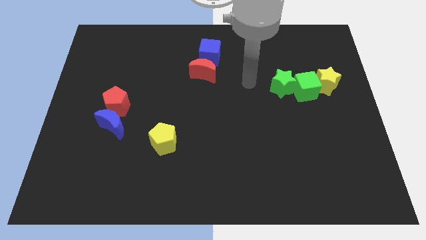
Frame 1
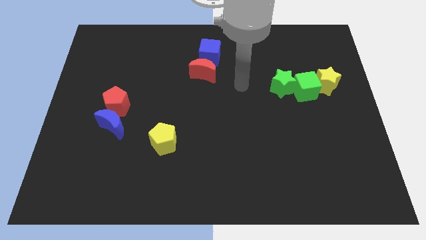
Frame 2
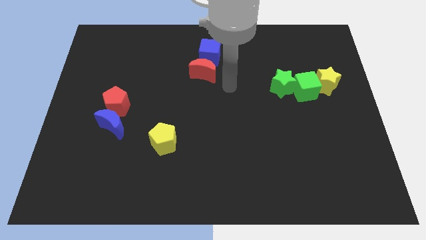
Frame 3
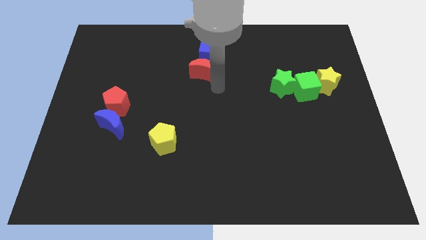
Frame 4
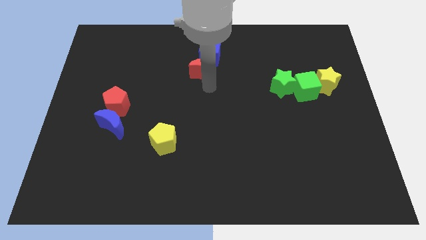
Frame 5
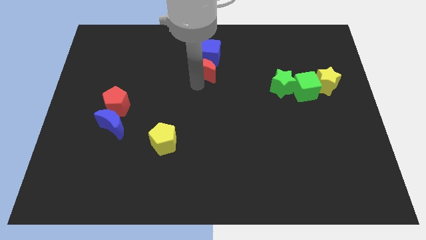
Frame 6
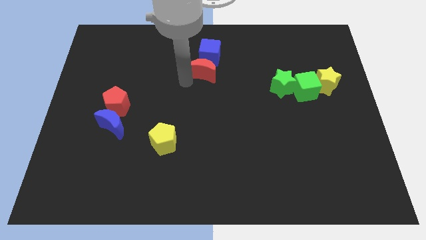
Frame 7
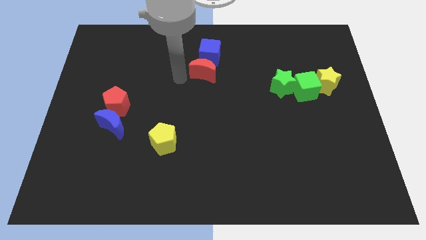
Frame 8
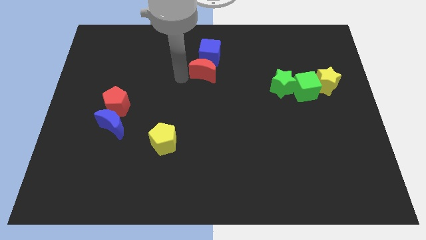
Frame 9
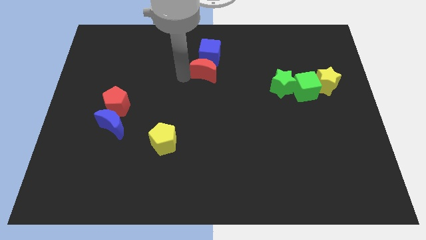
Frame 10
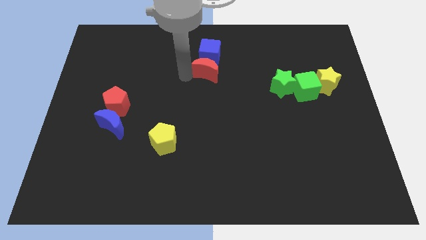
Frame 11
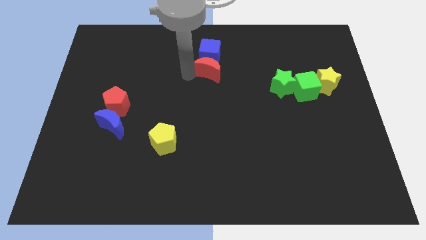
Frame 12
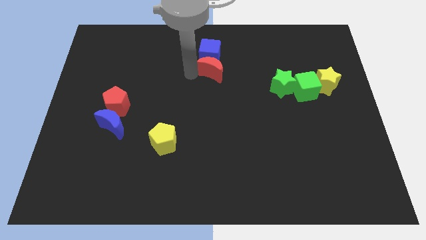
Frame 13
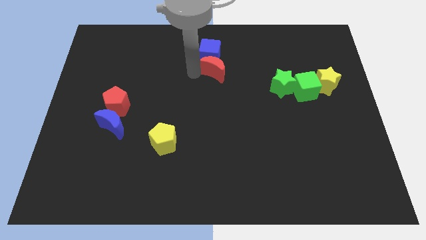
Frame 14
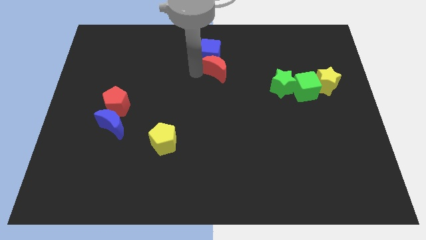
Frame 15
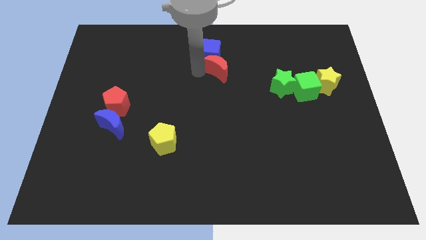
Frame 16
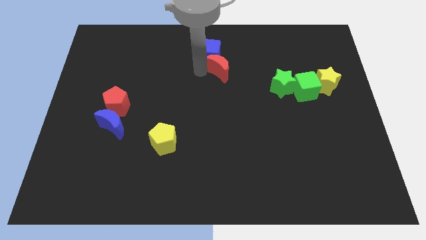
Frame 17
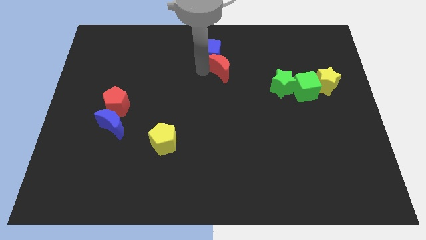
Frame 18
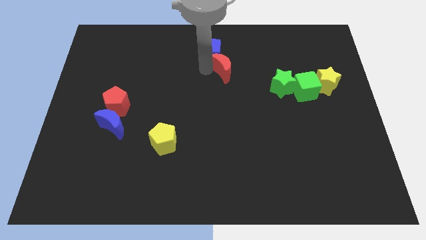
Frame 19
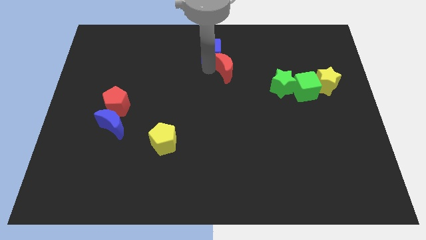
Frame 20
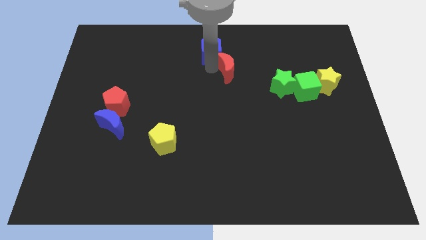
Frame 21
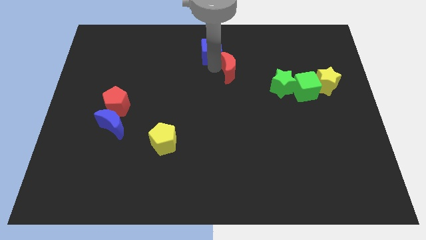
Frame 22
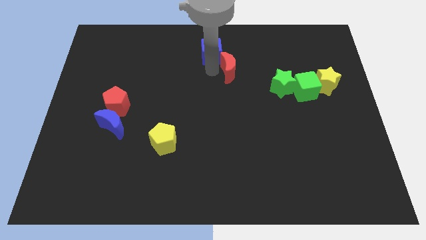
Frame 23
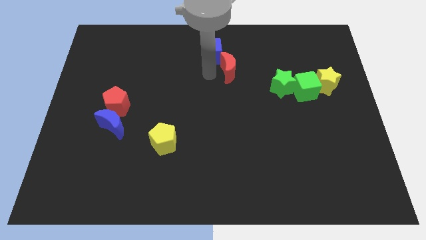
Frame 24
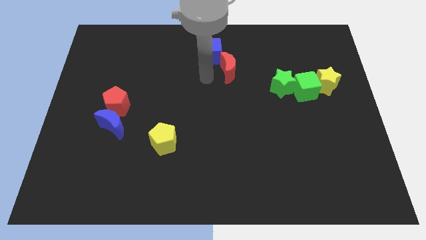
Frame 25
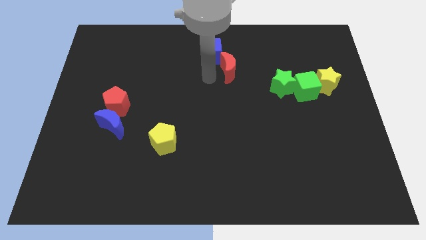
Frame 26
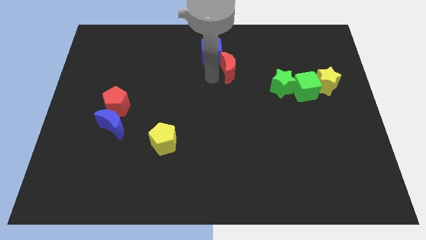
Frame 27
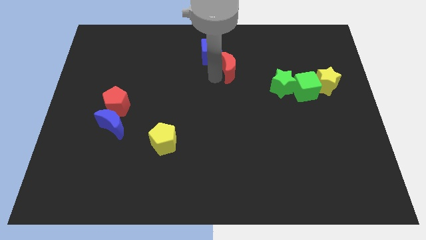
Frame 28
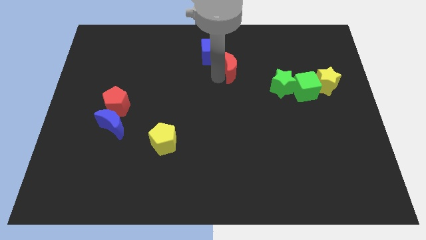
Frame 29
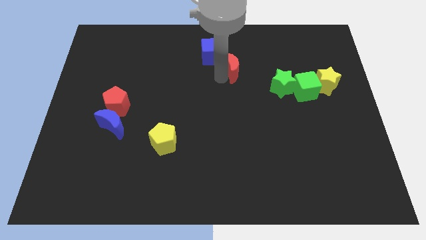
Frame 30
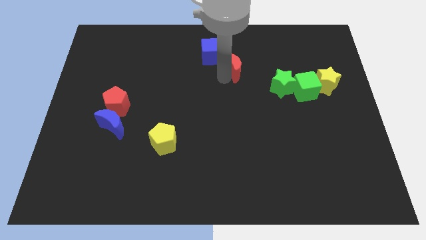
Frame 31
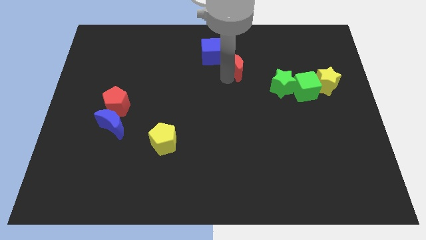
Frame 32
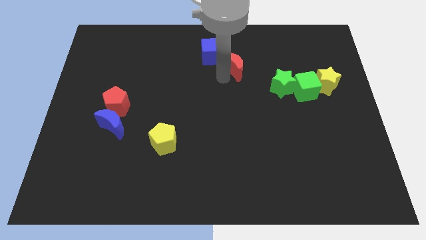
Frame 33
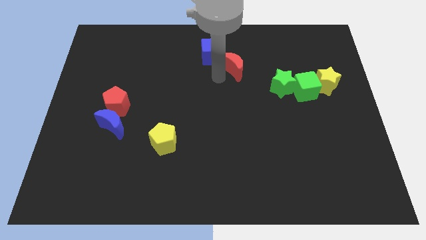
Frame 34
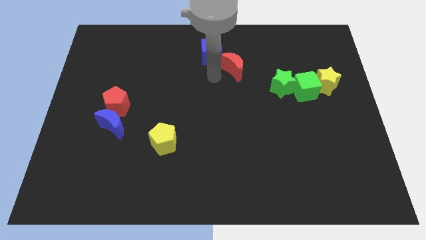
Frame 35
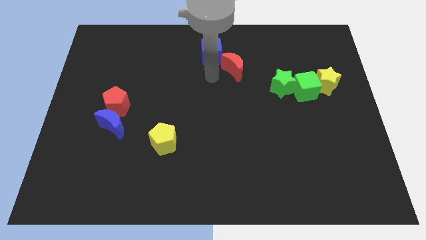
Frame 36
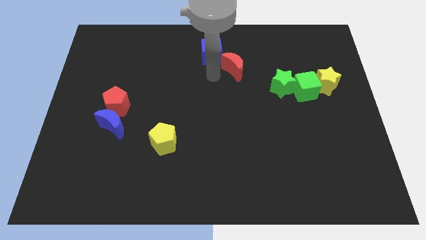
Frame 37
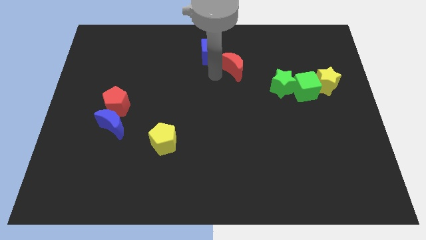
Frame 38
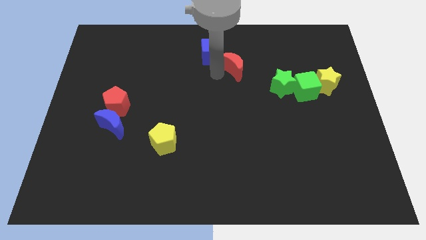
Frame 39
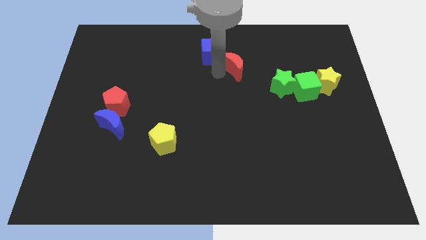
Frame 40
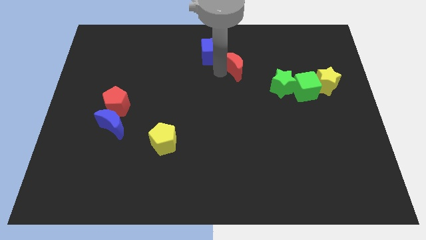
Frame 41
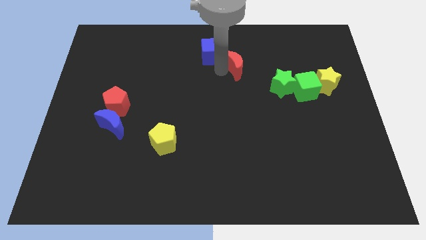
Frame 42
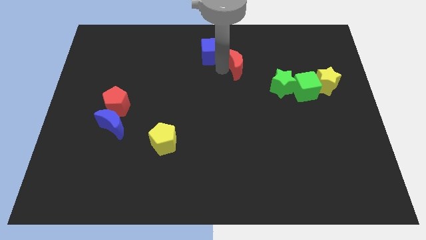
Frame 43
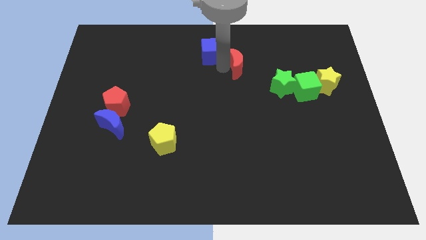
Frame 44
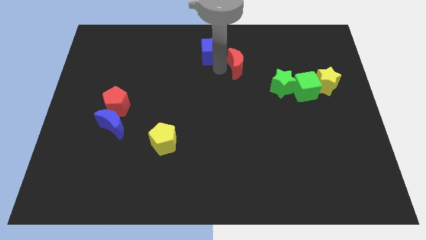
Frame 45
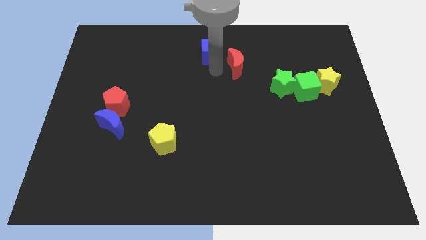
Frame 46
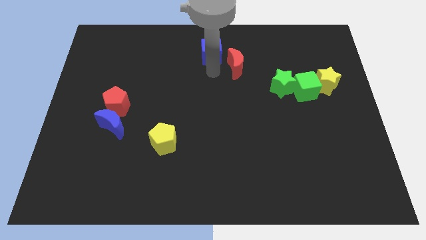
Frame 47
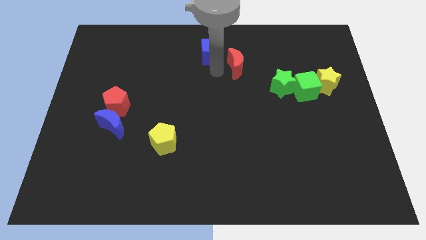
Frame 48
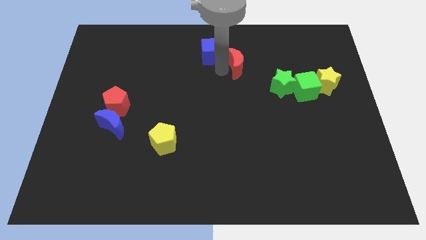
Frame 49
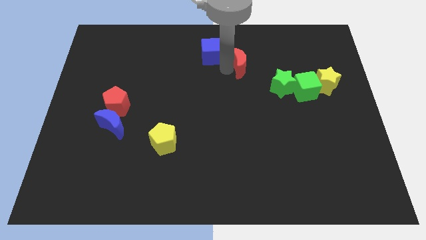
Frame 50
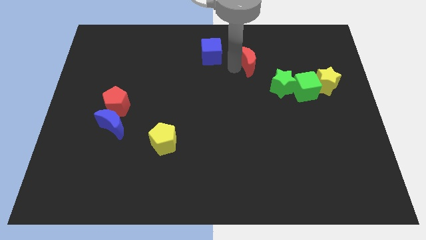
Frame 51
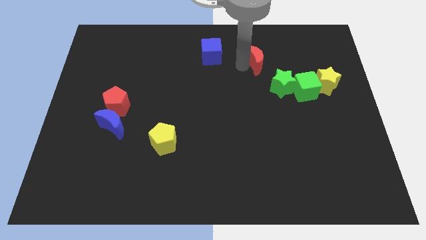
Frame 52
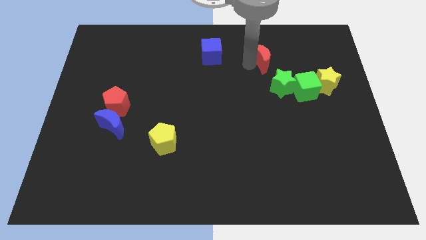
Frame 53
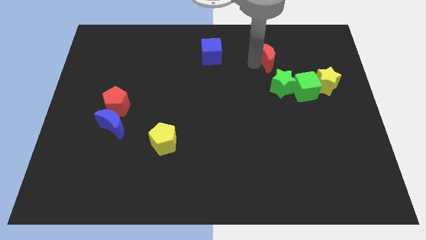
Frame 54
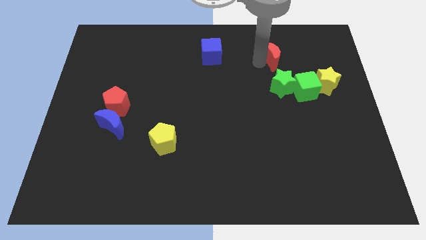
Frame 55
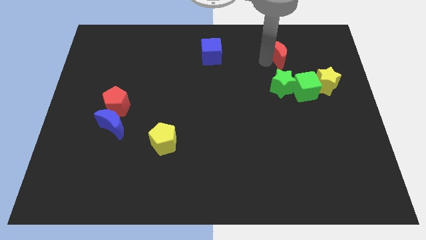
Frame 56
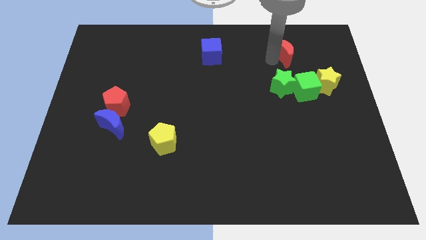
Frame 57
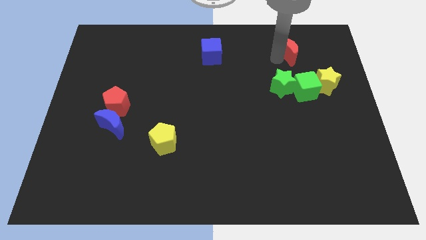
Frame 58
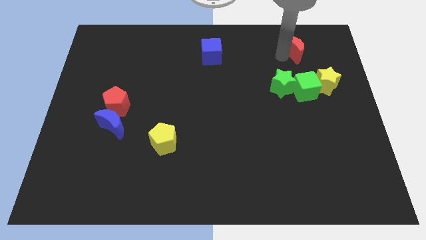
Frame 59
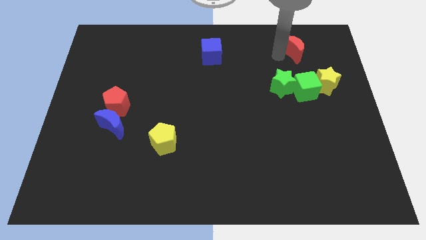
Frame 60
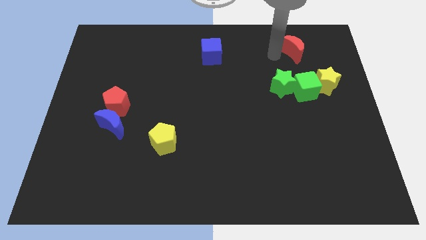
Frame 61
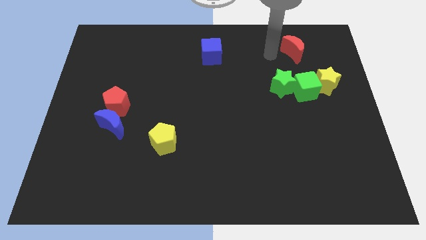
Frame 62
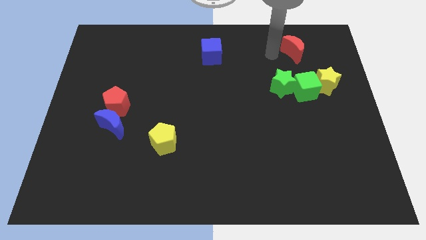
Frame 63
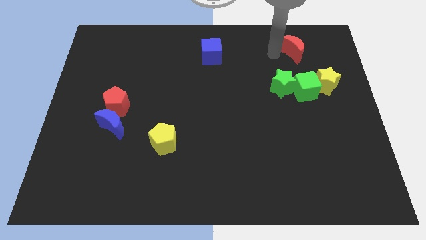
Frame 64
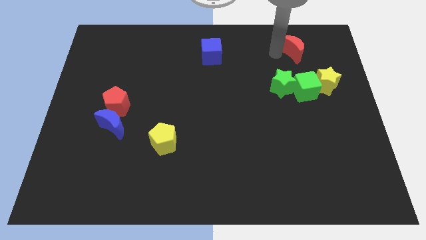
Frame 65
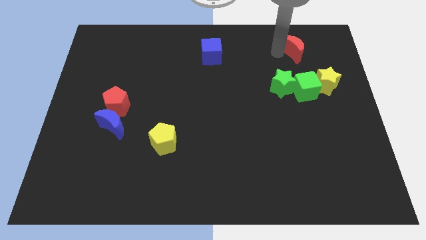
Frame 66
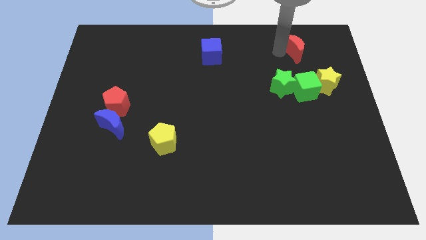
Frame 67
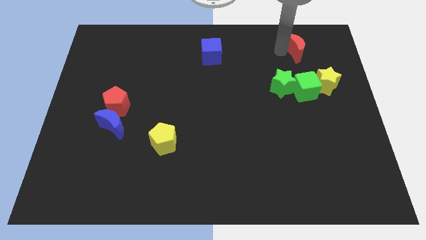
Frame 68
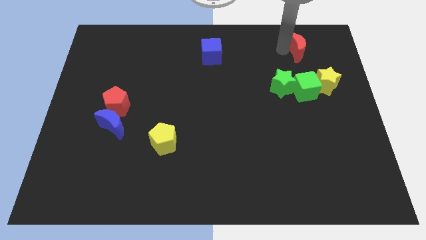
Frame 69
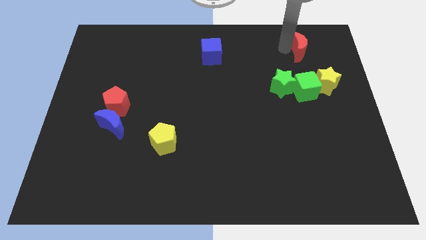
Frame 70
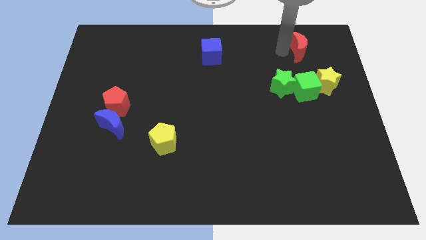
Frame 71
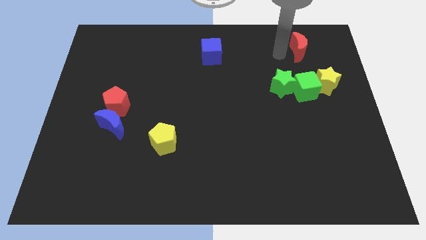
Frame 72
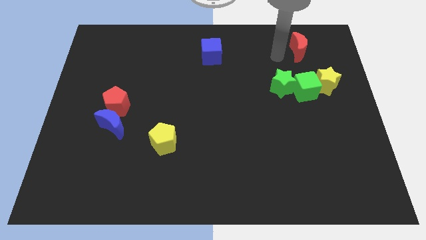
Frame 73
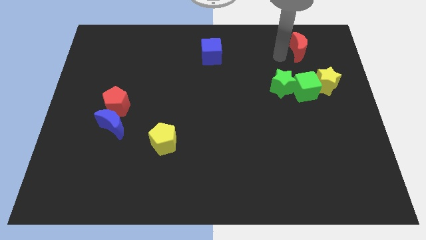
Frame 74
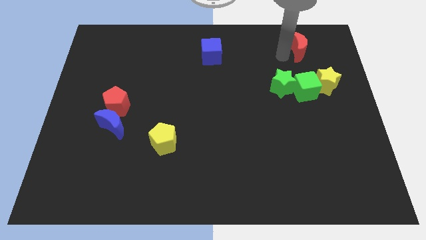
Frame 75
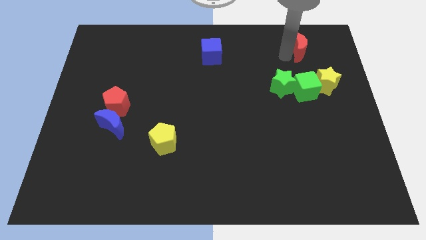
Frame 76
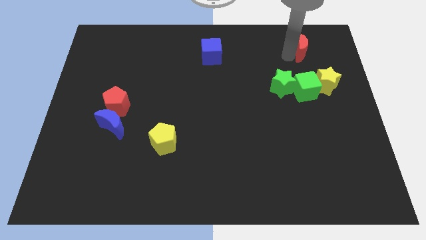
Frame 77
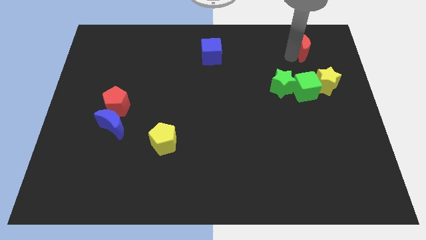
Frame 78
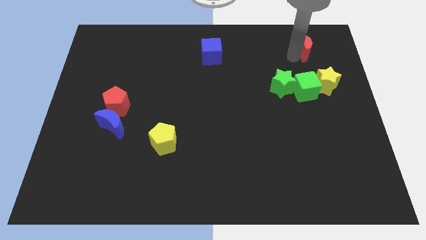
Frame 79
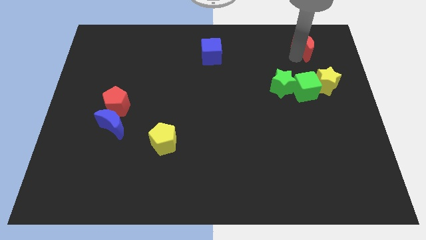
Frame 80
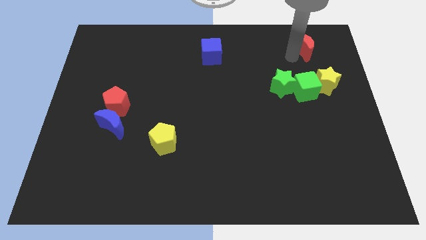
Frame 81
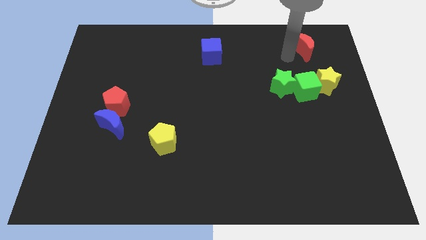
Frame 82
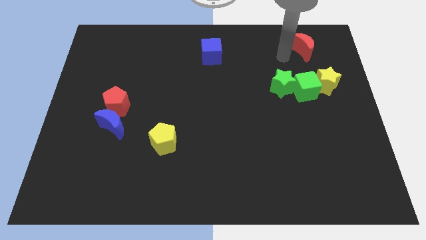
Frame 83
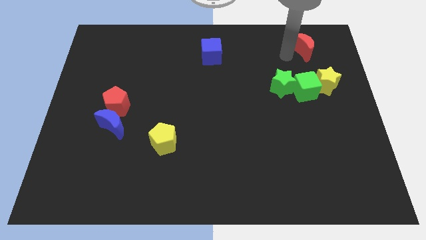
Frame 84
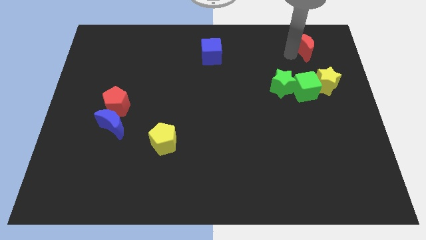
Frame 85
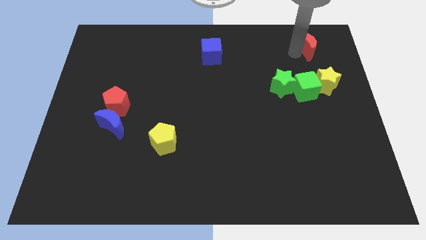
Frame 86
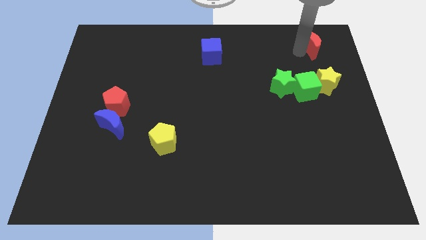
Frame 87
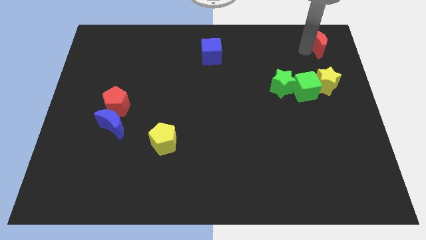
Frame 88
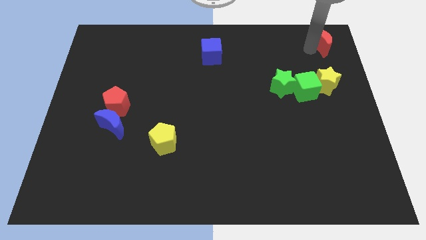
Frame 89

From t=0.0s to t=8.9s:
move the red moon to the top right
